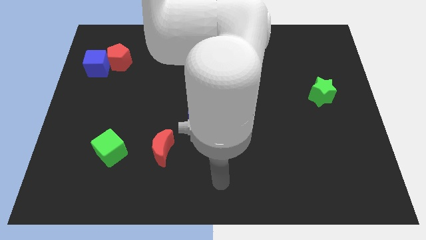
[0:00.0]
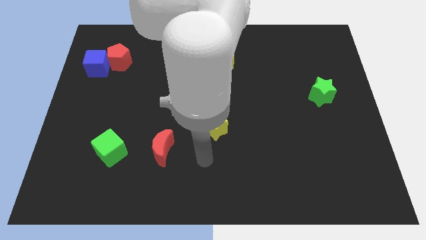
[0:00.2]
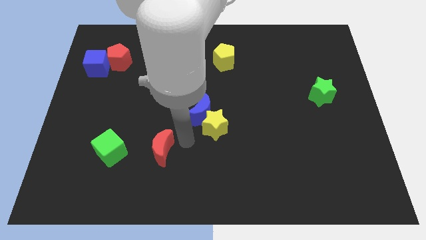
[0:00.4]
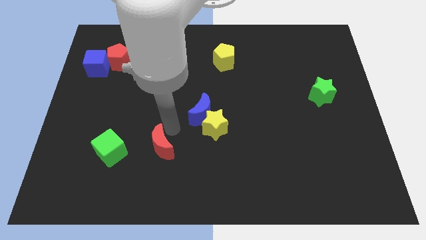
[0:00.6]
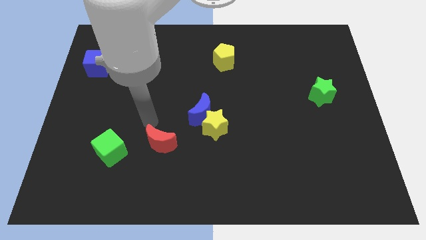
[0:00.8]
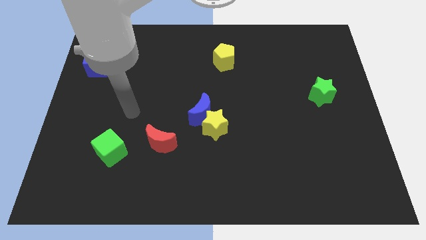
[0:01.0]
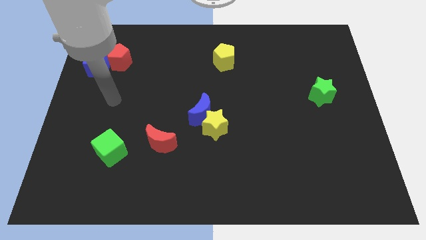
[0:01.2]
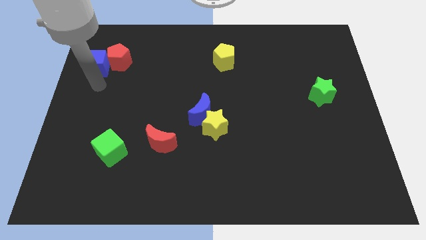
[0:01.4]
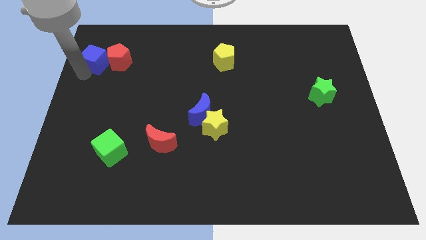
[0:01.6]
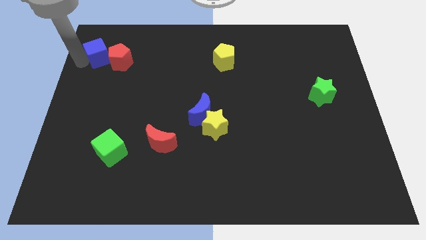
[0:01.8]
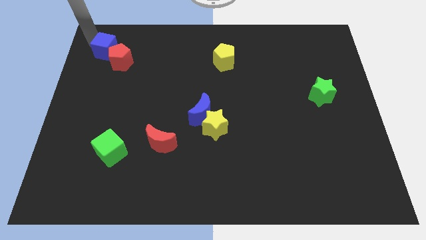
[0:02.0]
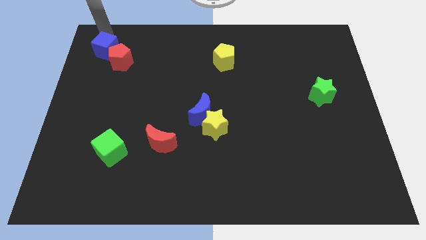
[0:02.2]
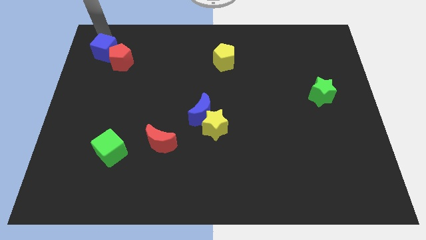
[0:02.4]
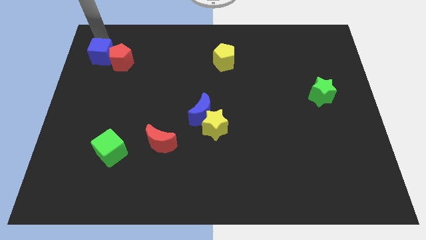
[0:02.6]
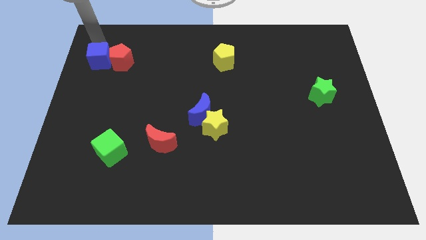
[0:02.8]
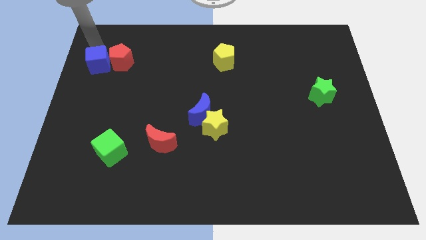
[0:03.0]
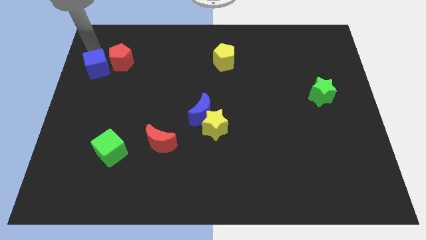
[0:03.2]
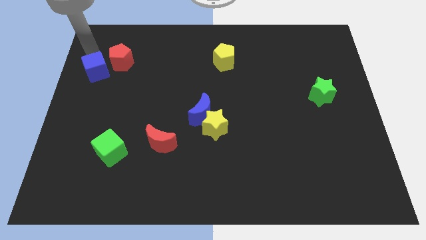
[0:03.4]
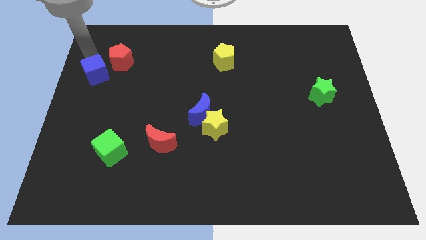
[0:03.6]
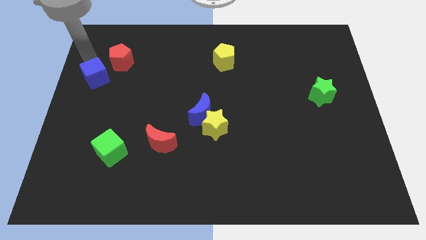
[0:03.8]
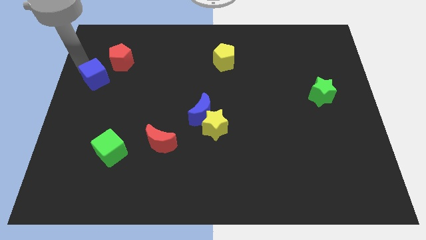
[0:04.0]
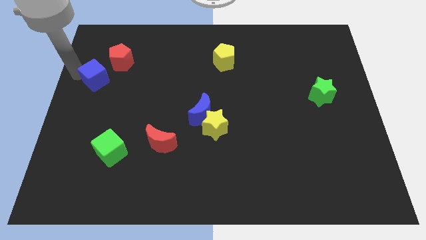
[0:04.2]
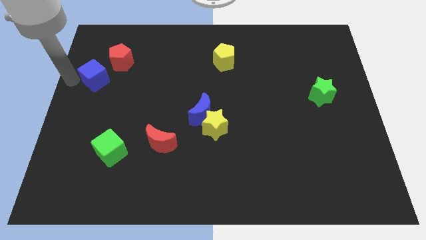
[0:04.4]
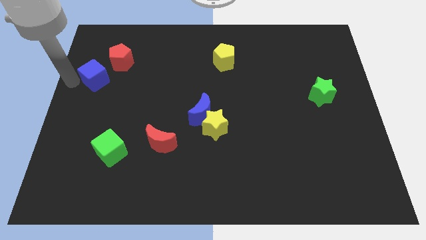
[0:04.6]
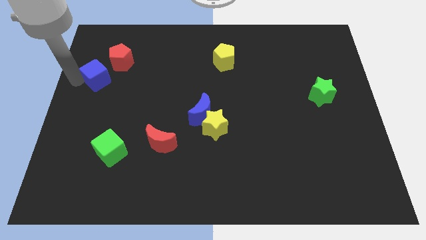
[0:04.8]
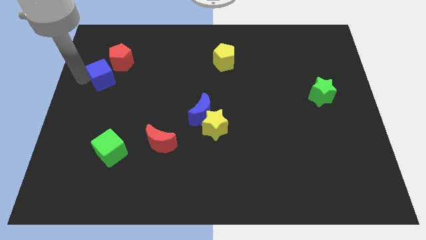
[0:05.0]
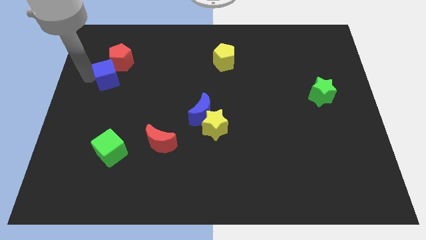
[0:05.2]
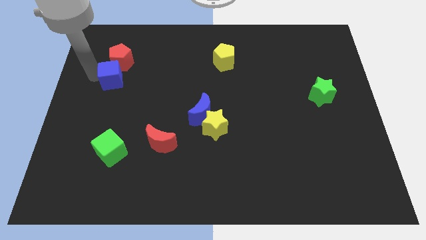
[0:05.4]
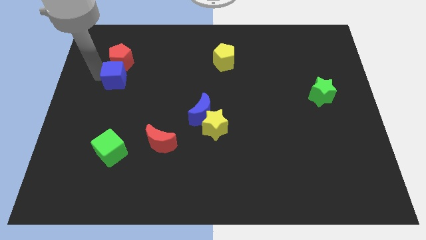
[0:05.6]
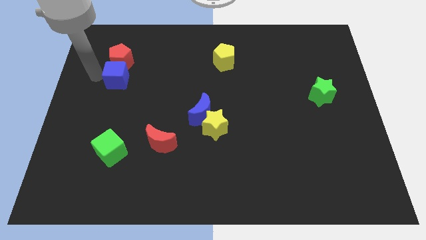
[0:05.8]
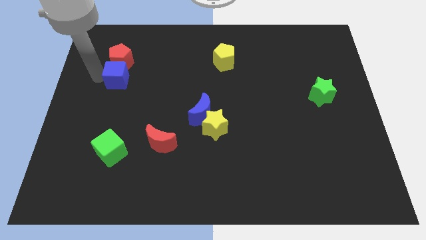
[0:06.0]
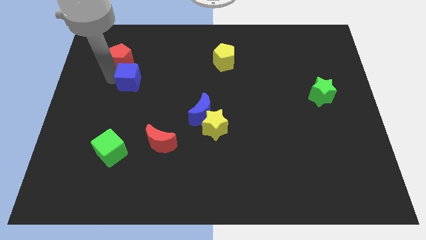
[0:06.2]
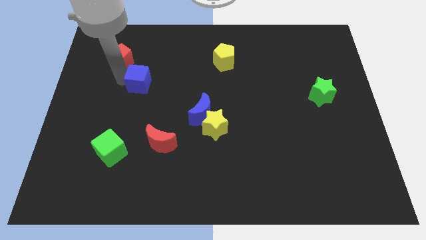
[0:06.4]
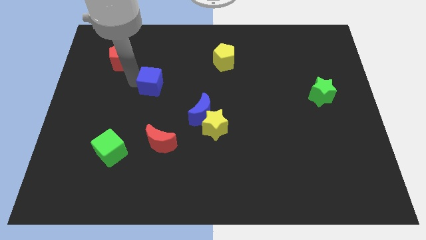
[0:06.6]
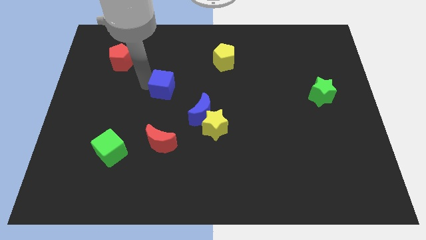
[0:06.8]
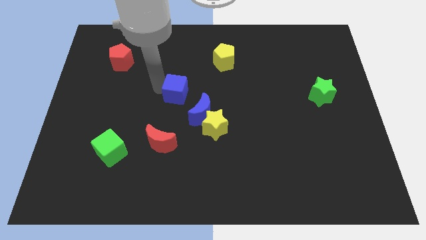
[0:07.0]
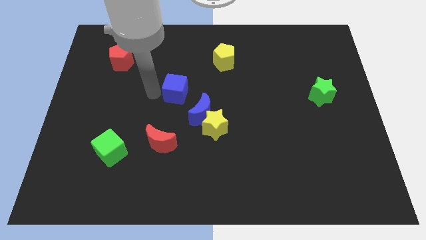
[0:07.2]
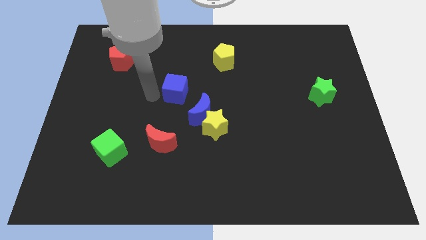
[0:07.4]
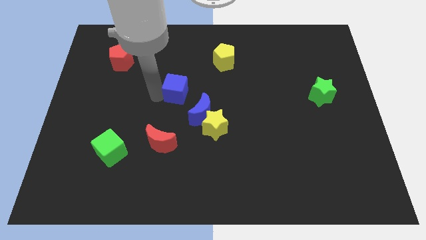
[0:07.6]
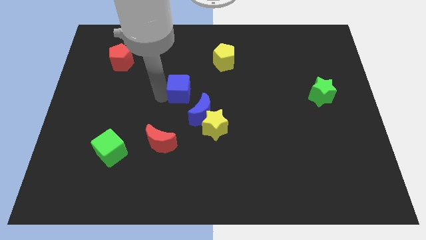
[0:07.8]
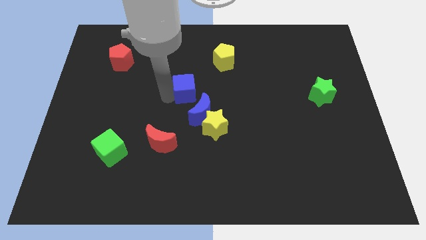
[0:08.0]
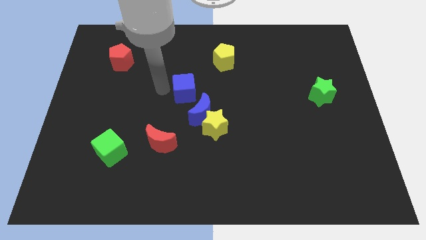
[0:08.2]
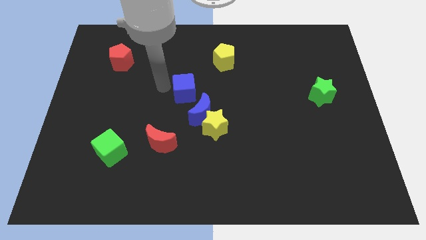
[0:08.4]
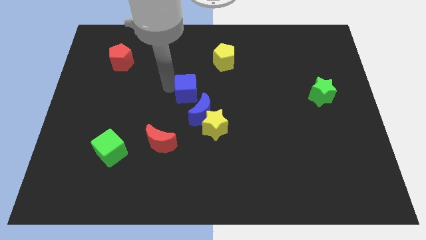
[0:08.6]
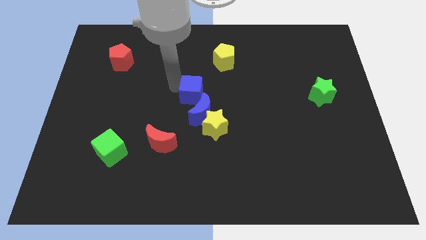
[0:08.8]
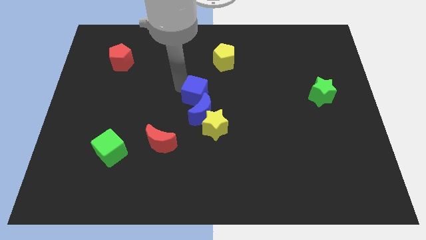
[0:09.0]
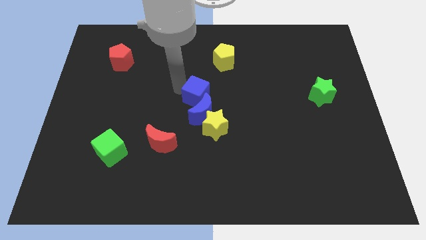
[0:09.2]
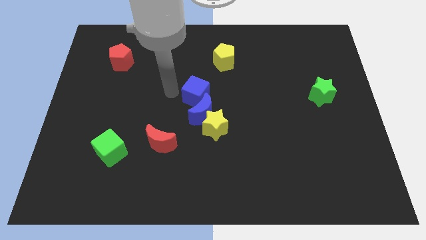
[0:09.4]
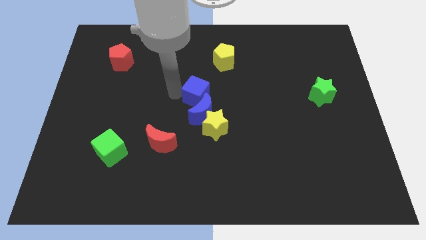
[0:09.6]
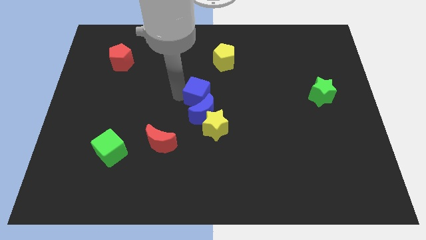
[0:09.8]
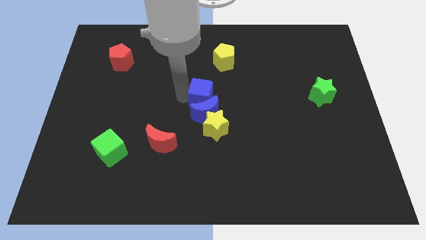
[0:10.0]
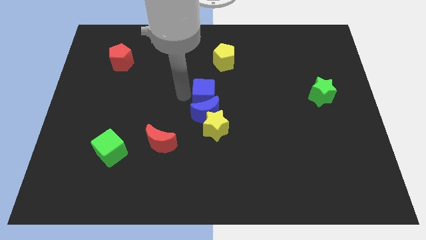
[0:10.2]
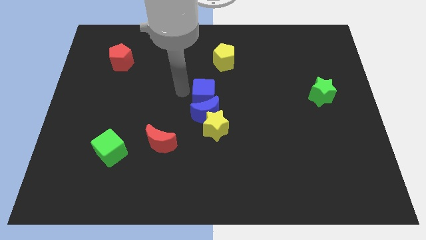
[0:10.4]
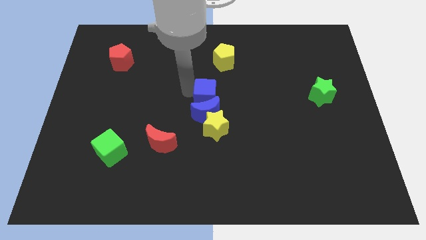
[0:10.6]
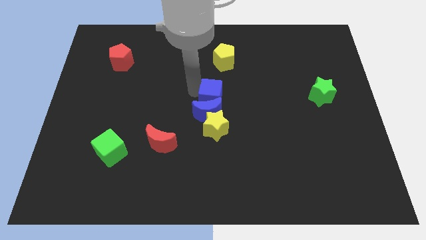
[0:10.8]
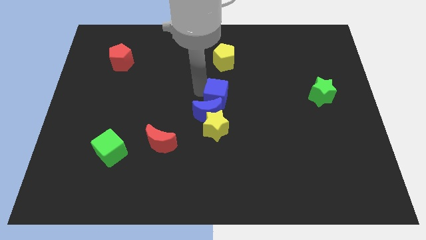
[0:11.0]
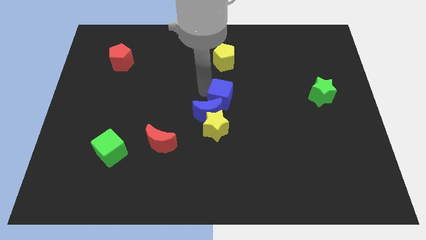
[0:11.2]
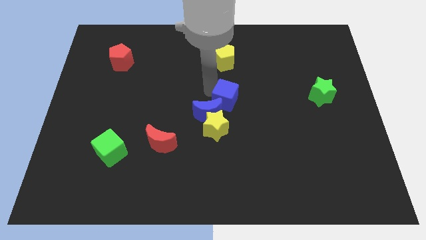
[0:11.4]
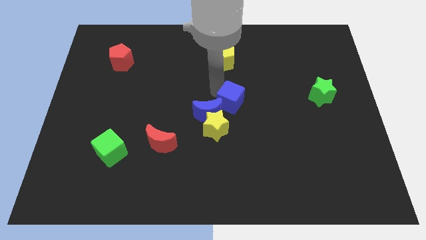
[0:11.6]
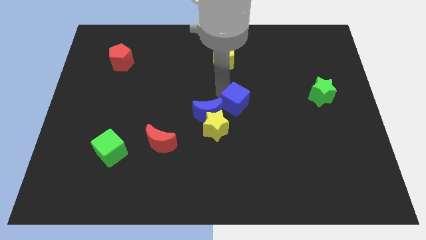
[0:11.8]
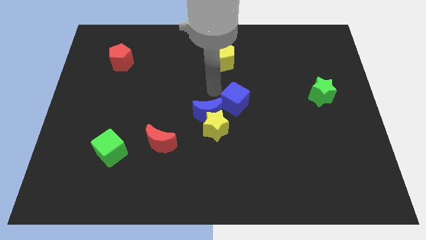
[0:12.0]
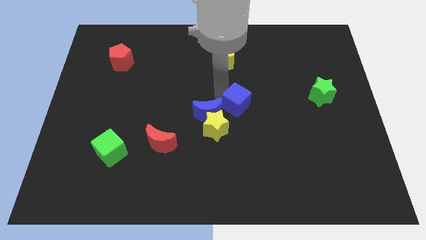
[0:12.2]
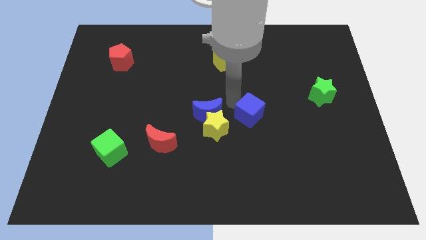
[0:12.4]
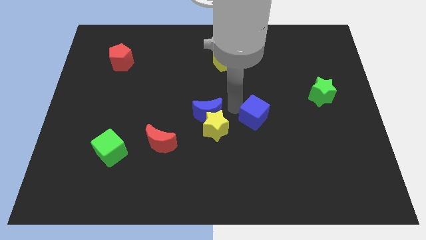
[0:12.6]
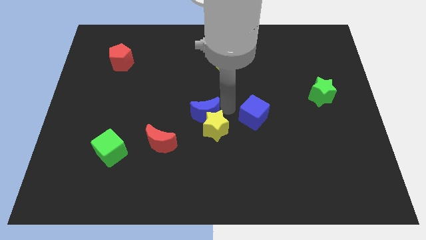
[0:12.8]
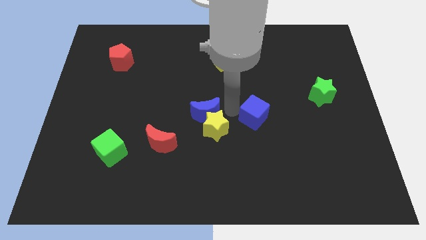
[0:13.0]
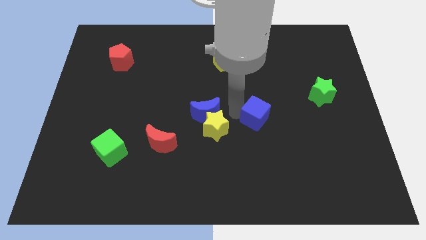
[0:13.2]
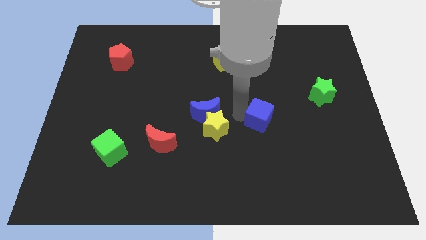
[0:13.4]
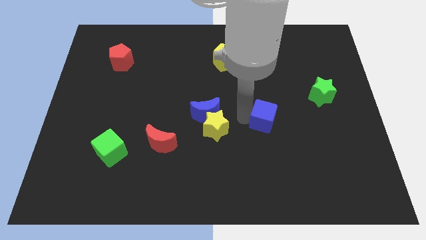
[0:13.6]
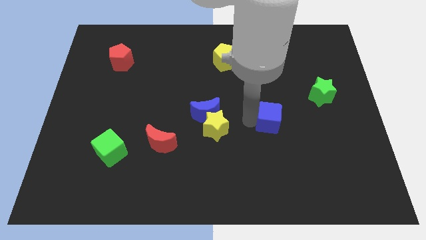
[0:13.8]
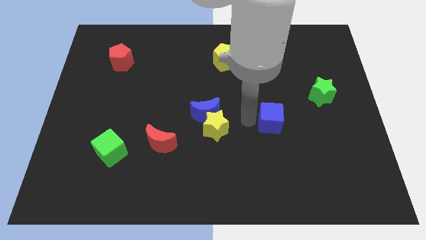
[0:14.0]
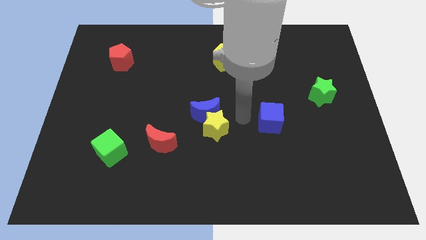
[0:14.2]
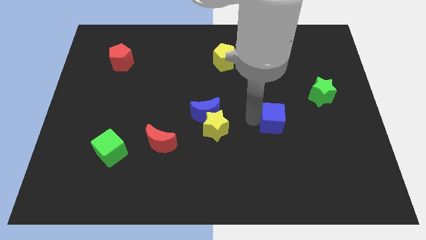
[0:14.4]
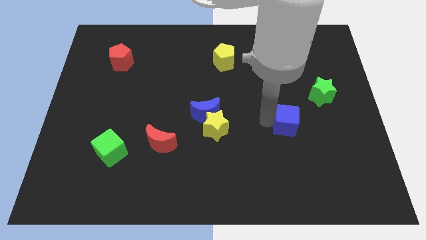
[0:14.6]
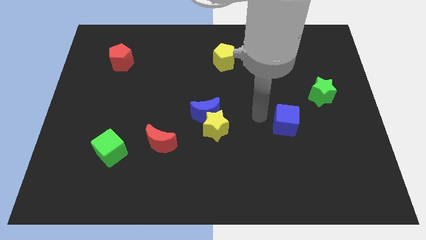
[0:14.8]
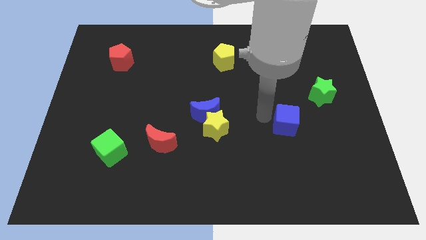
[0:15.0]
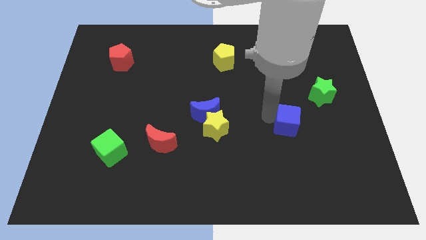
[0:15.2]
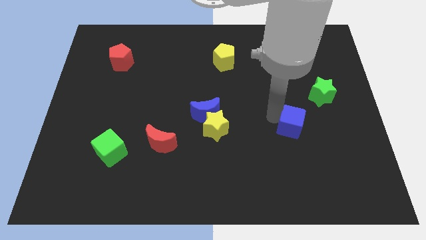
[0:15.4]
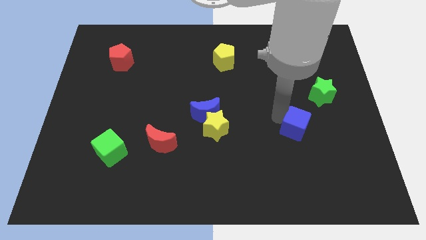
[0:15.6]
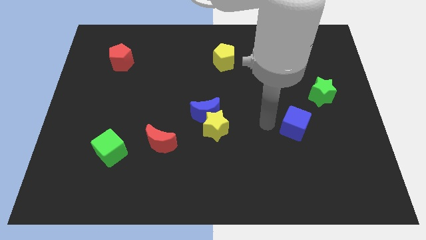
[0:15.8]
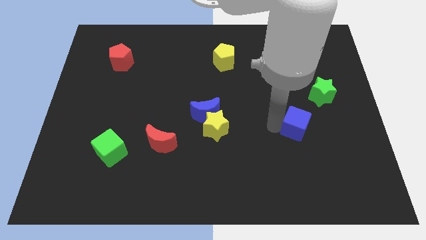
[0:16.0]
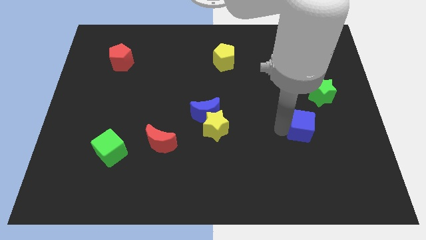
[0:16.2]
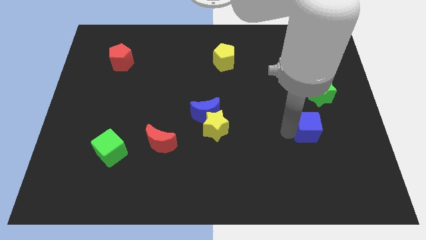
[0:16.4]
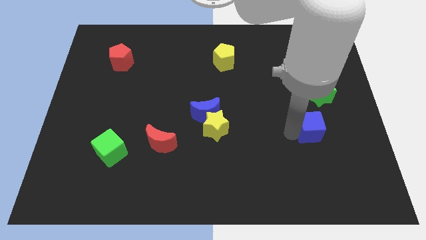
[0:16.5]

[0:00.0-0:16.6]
put the blue cube to the bottom side of the green star
